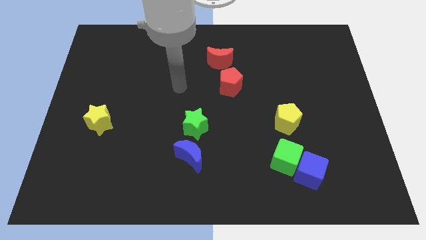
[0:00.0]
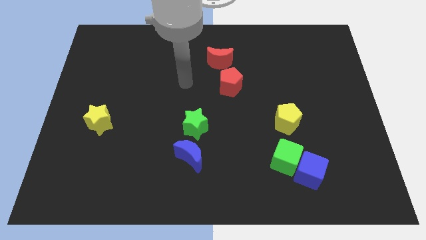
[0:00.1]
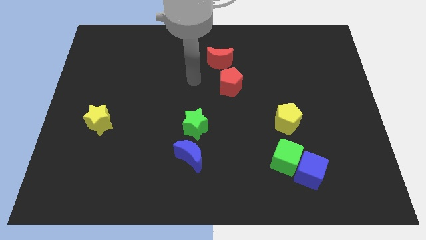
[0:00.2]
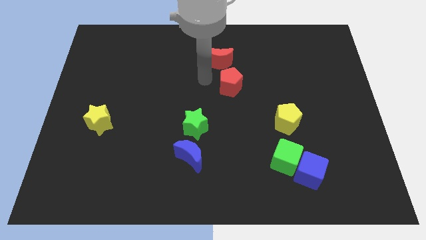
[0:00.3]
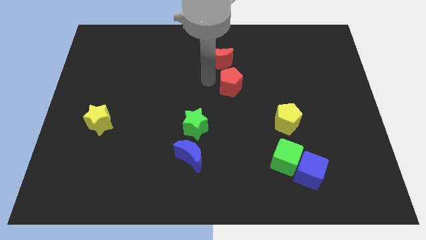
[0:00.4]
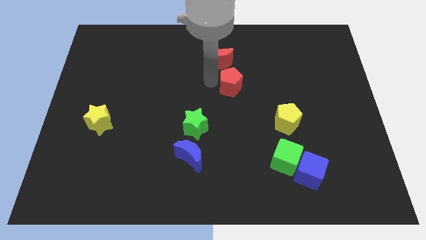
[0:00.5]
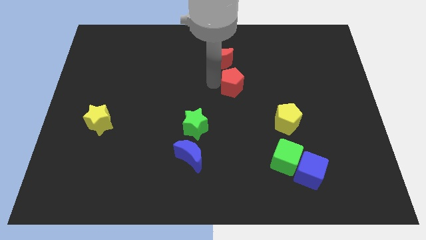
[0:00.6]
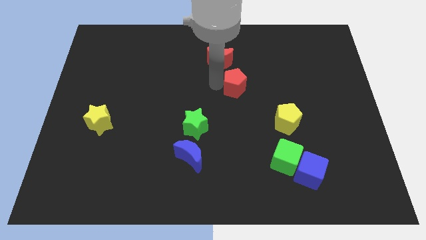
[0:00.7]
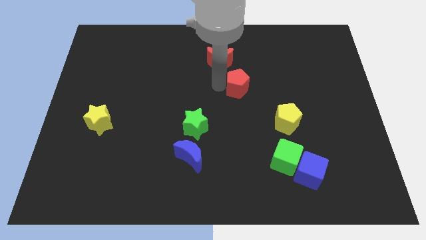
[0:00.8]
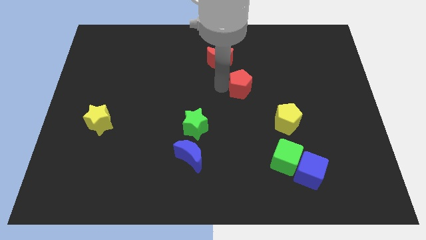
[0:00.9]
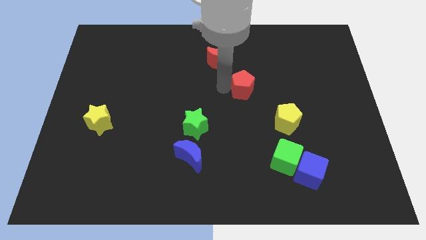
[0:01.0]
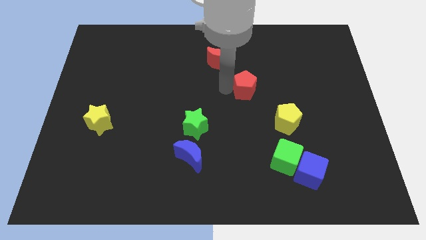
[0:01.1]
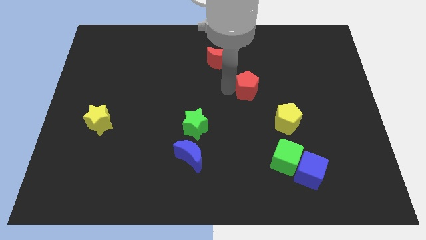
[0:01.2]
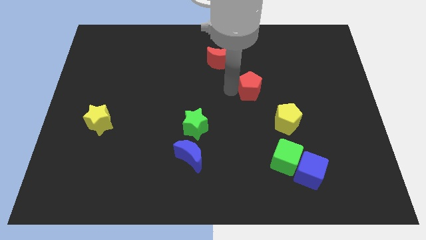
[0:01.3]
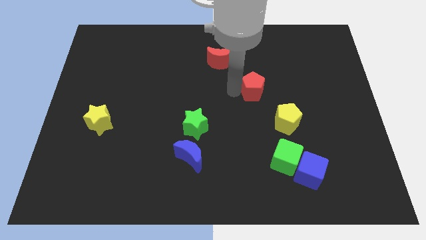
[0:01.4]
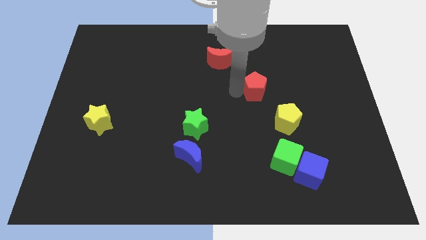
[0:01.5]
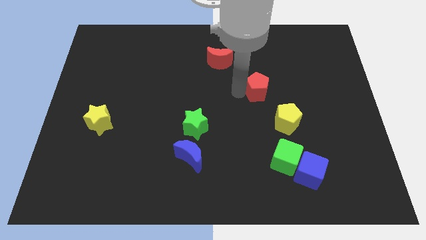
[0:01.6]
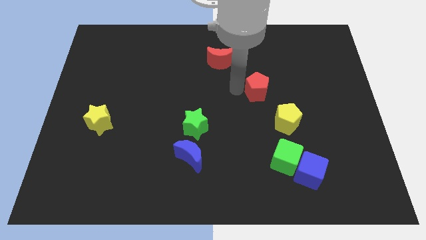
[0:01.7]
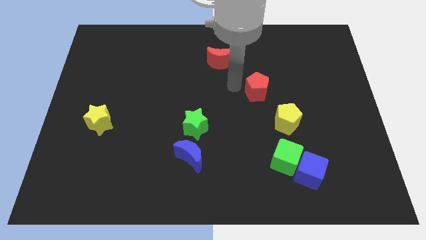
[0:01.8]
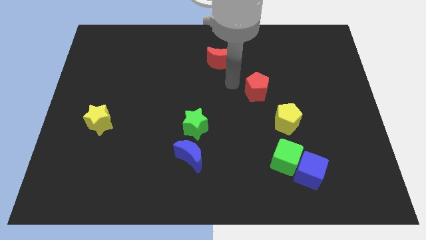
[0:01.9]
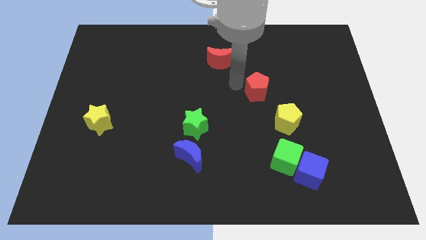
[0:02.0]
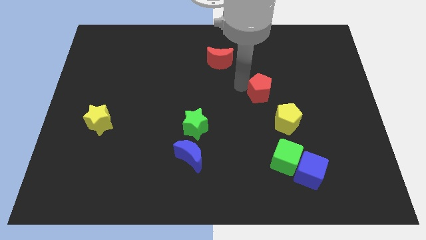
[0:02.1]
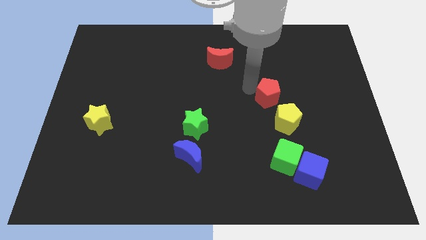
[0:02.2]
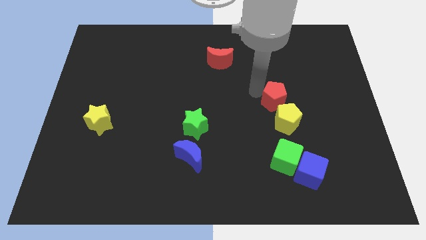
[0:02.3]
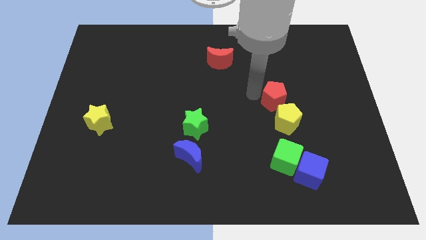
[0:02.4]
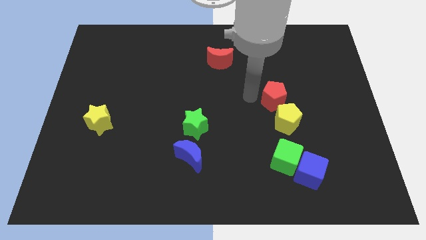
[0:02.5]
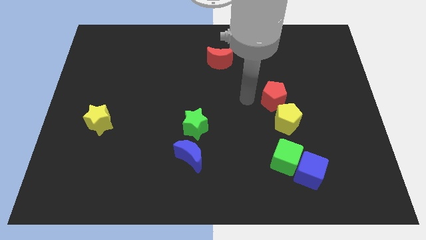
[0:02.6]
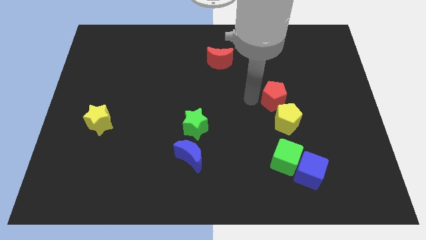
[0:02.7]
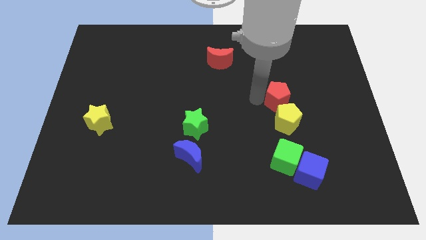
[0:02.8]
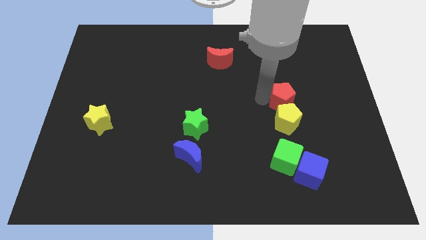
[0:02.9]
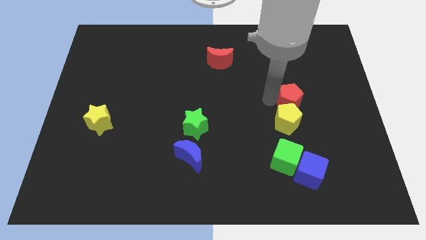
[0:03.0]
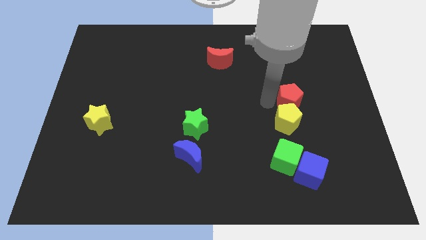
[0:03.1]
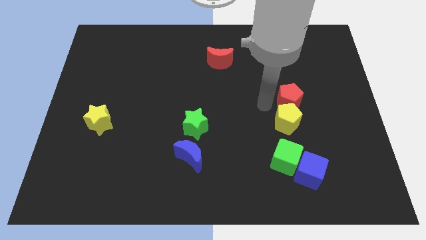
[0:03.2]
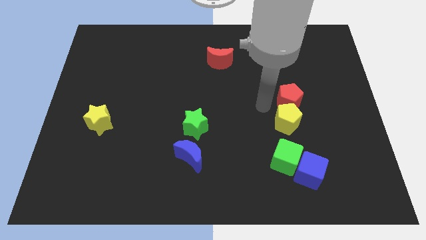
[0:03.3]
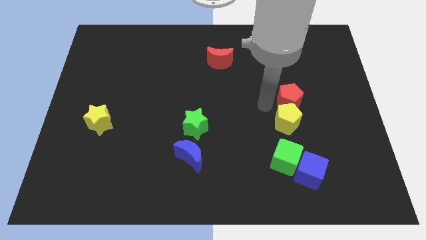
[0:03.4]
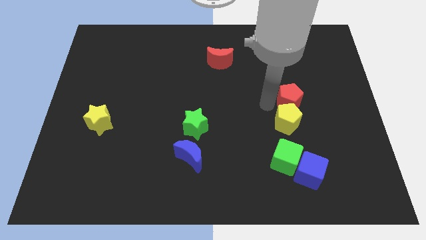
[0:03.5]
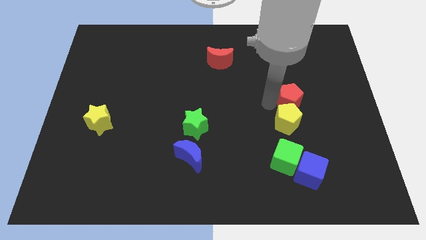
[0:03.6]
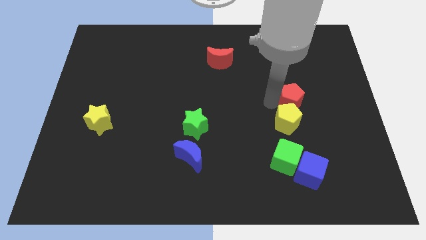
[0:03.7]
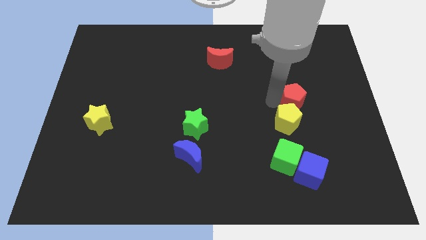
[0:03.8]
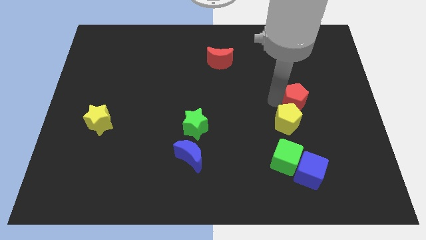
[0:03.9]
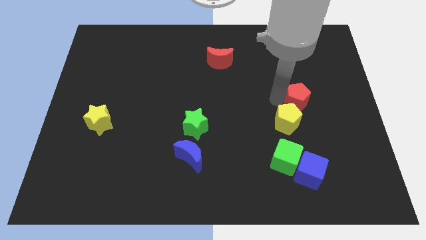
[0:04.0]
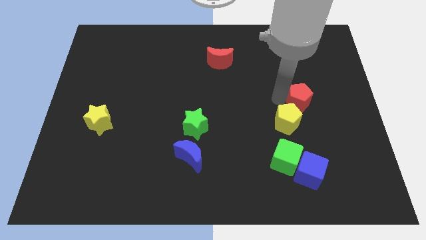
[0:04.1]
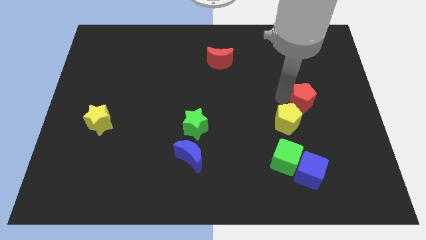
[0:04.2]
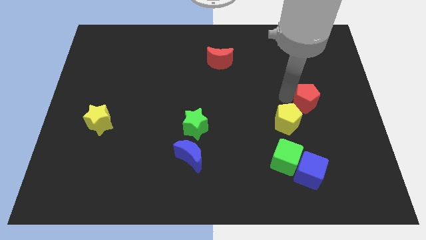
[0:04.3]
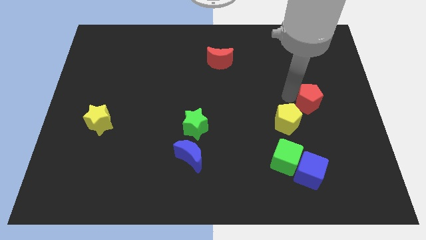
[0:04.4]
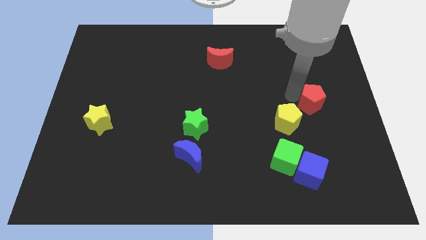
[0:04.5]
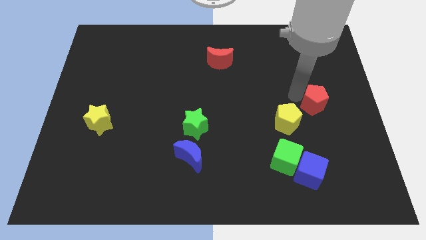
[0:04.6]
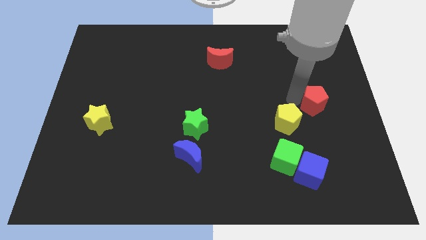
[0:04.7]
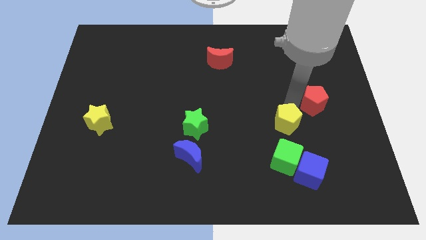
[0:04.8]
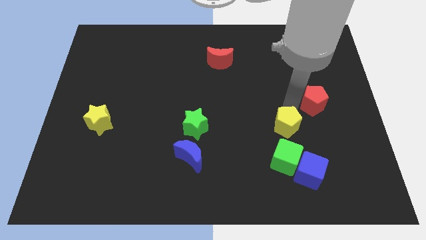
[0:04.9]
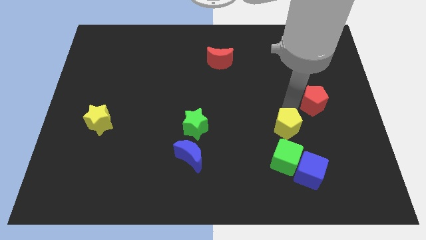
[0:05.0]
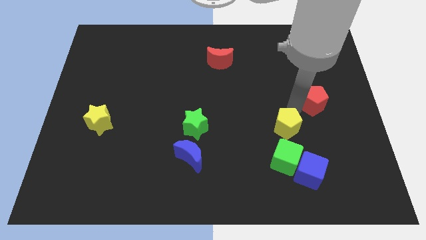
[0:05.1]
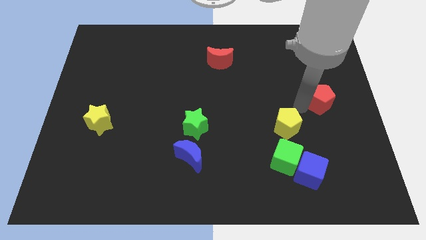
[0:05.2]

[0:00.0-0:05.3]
put the red pentagon to the right side of the board

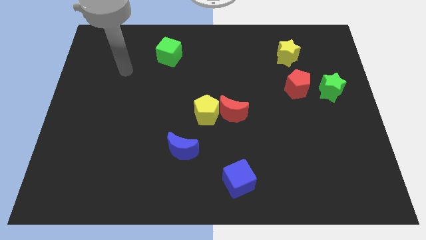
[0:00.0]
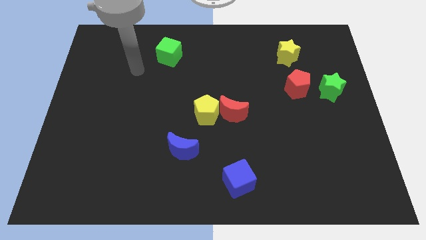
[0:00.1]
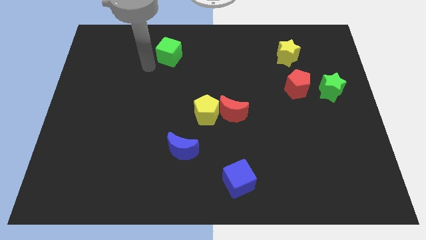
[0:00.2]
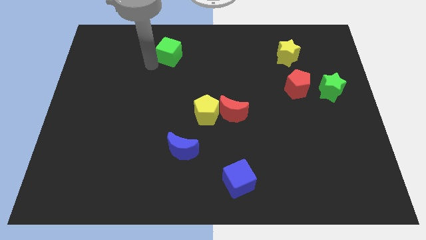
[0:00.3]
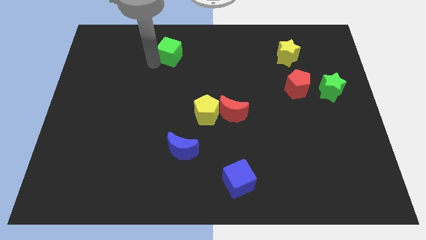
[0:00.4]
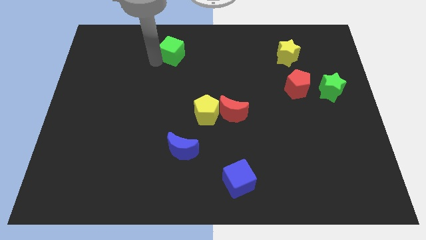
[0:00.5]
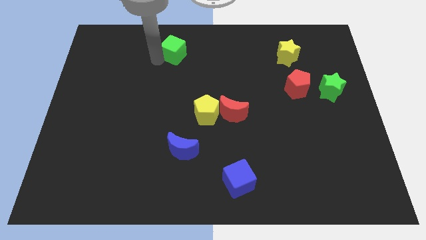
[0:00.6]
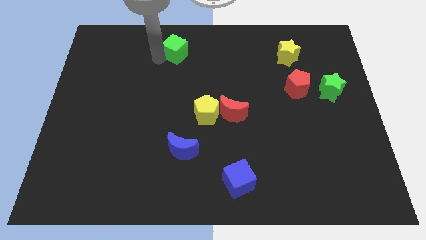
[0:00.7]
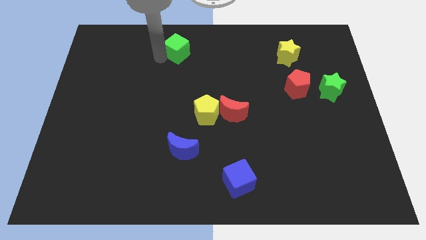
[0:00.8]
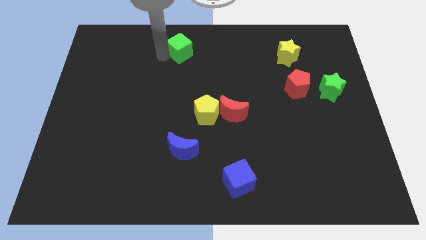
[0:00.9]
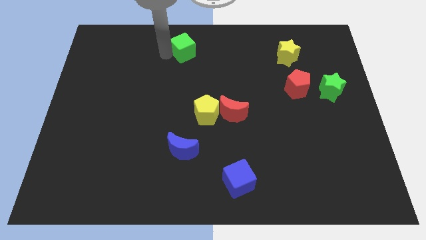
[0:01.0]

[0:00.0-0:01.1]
slide the green cube to the top side
